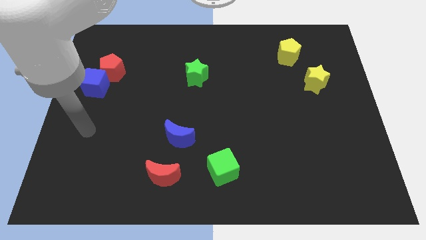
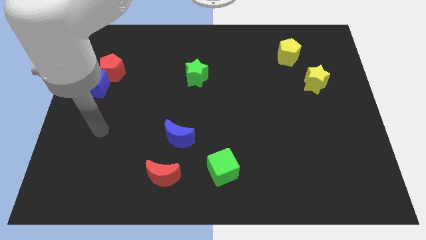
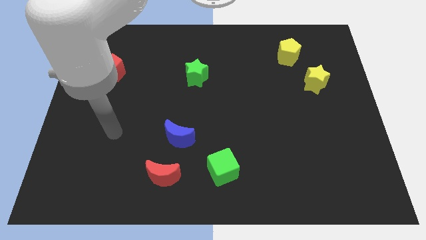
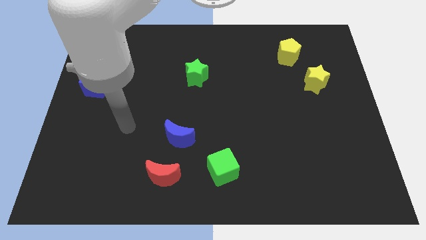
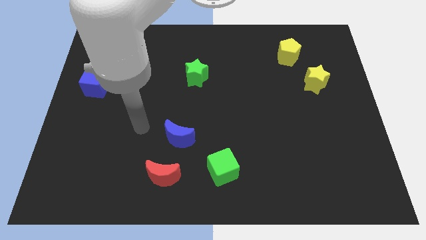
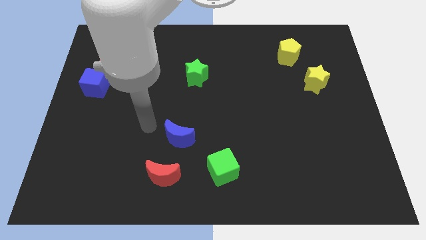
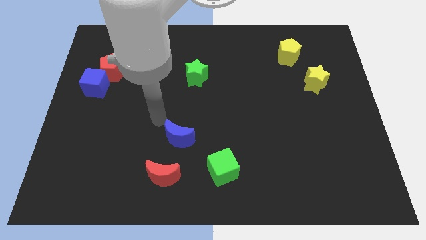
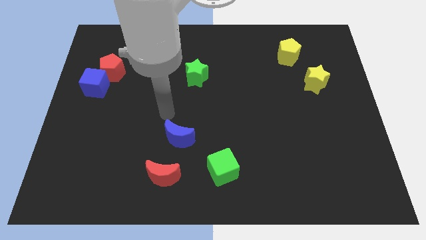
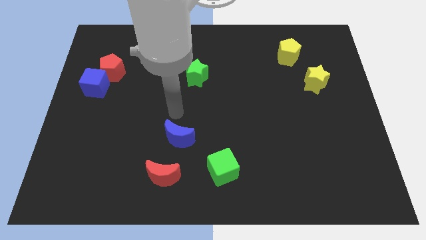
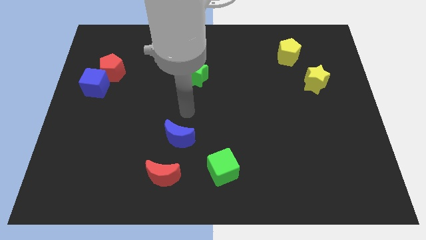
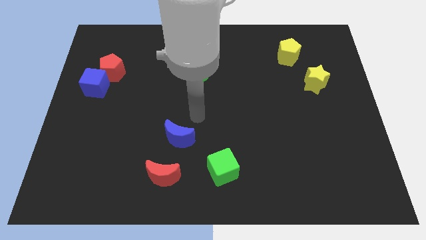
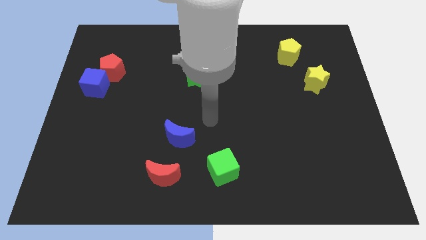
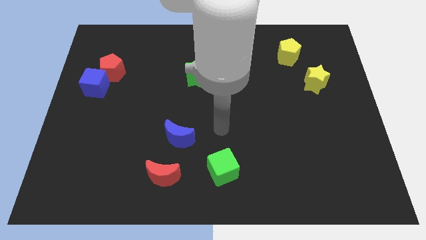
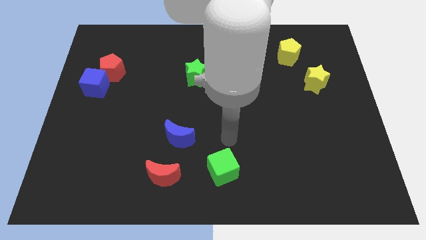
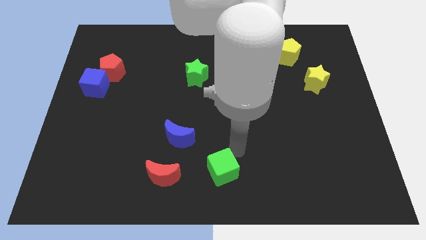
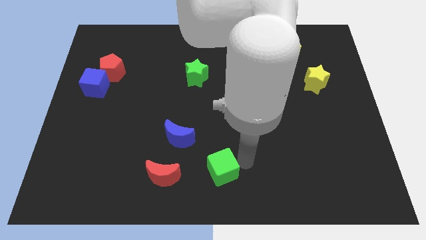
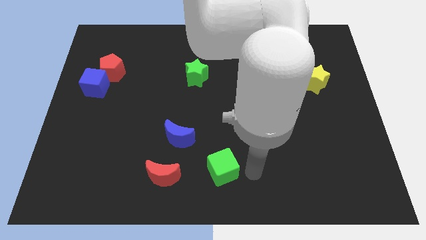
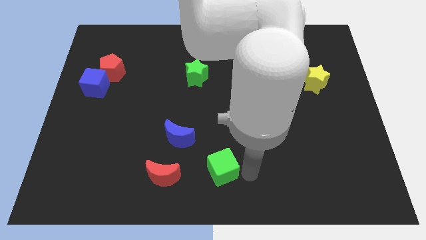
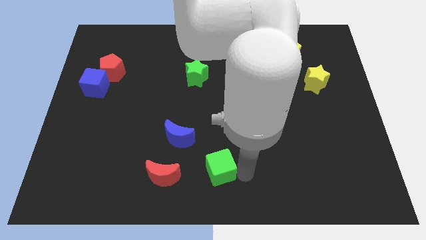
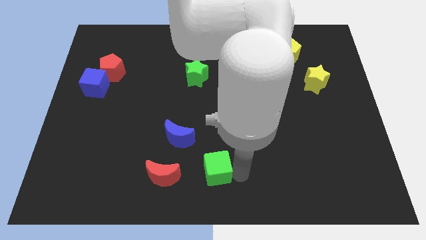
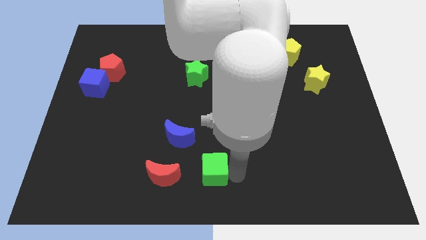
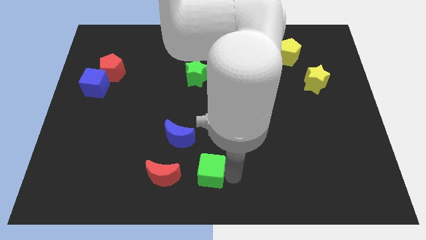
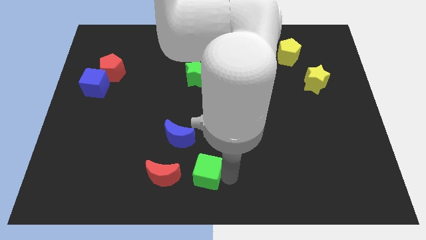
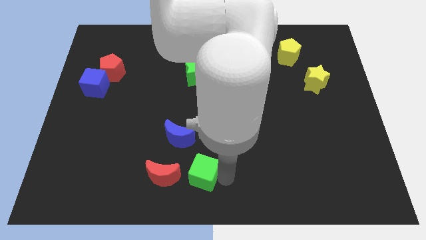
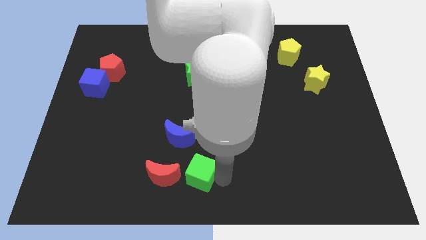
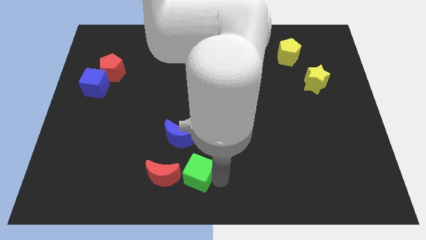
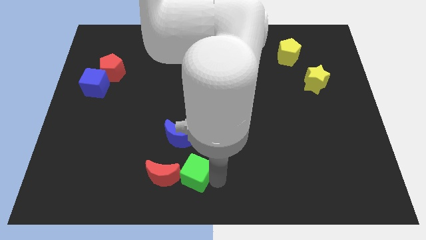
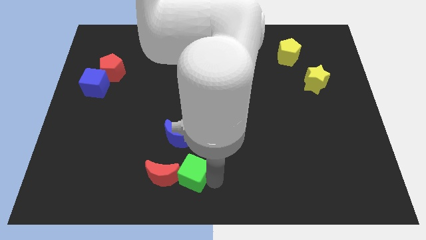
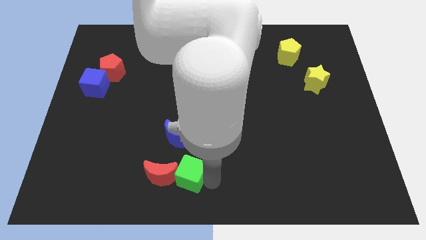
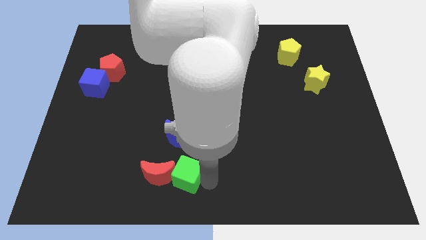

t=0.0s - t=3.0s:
push the green cube to the left a bit

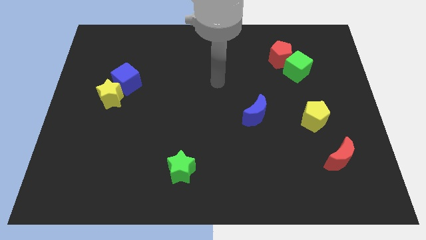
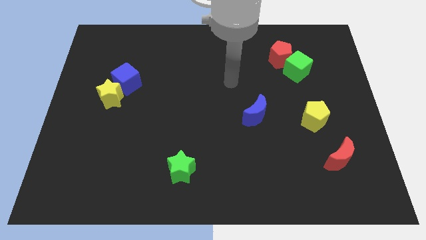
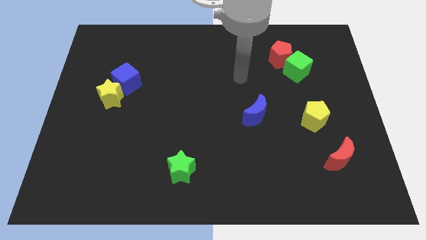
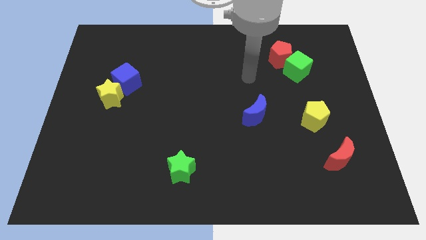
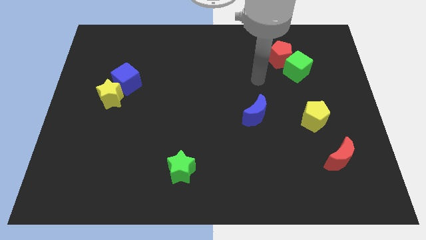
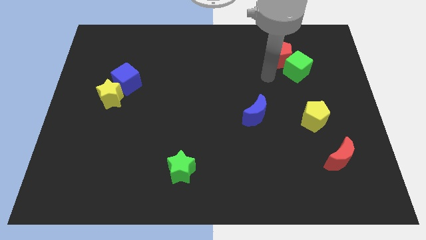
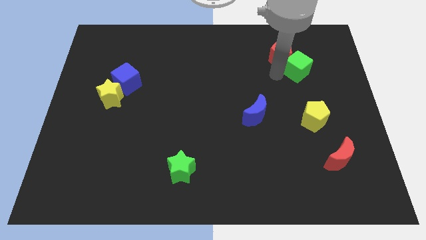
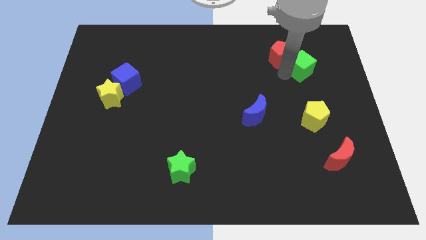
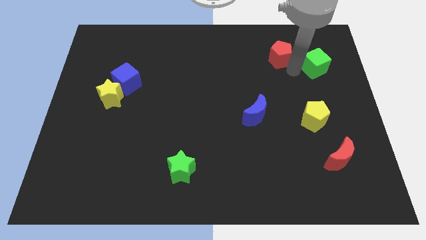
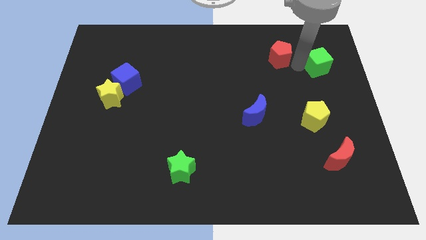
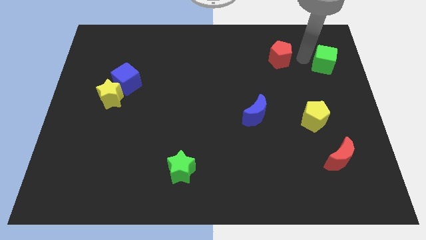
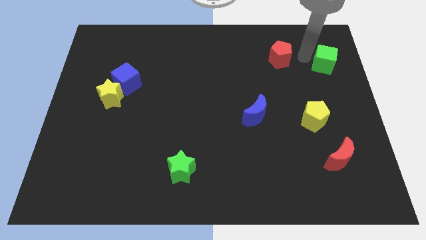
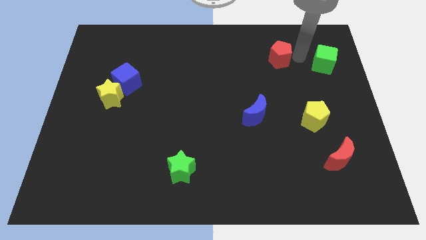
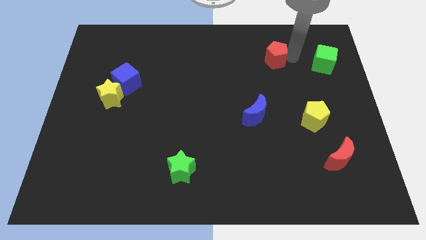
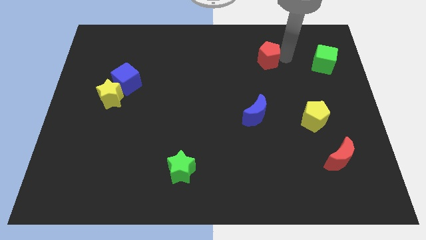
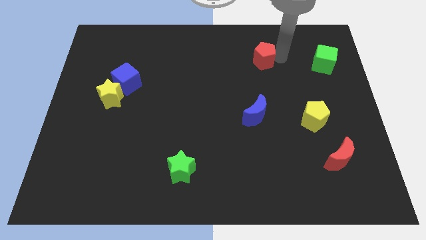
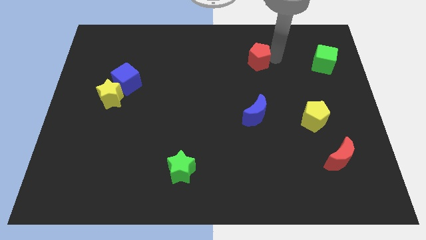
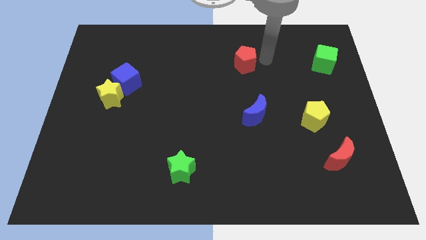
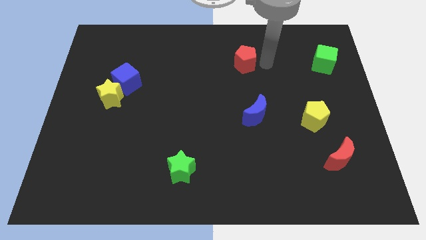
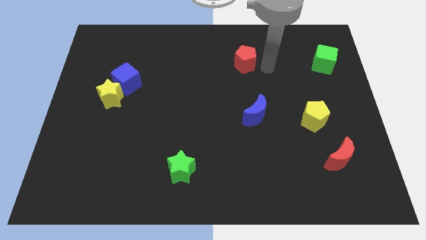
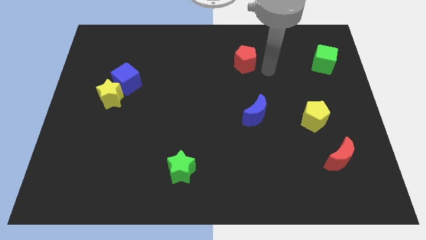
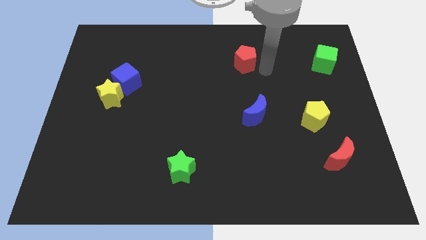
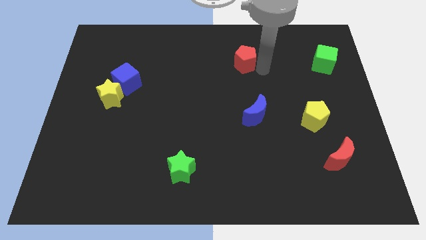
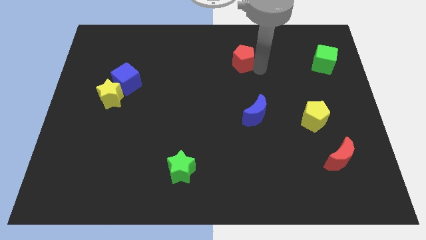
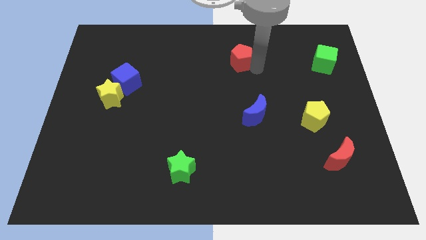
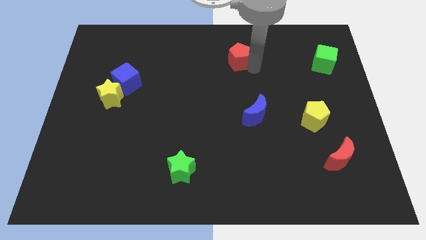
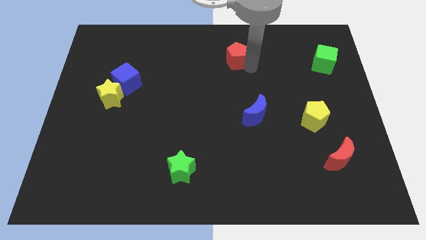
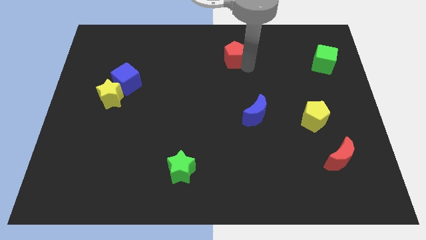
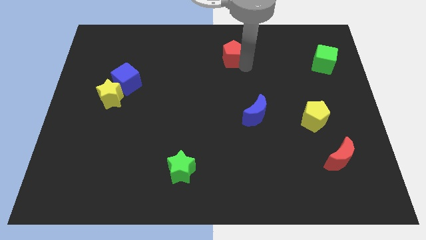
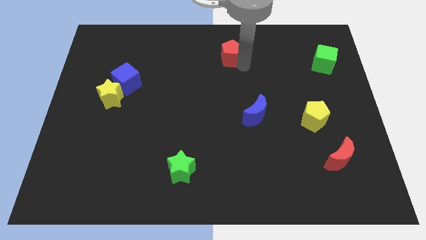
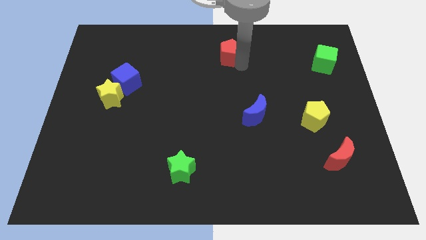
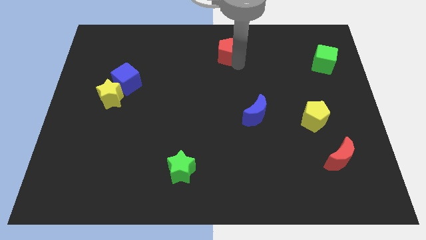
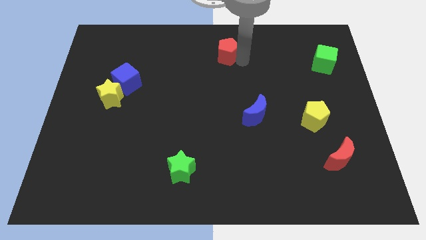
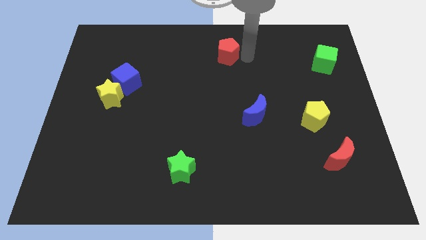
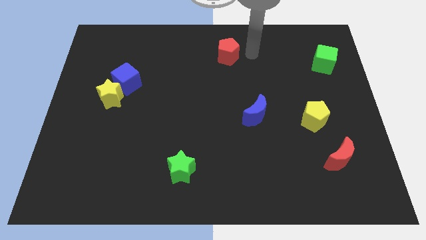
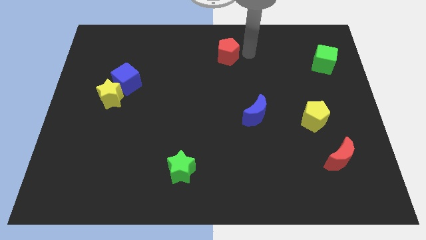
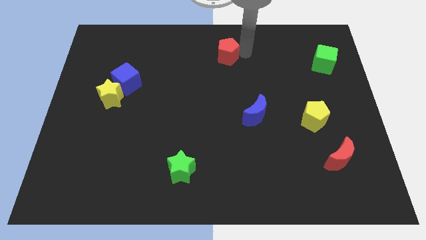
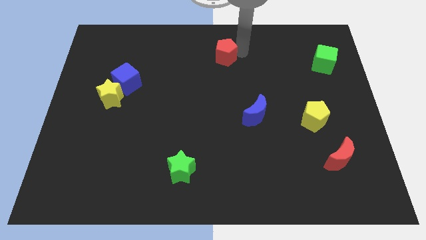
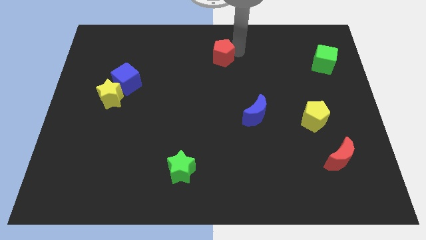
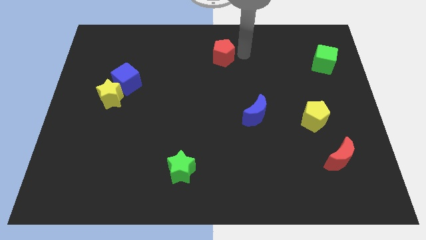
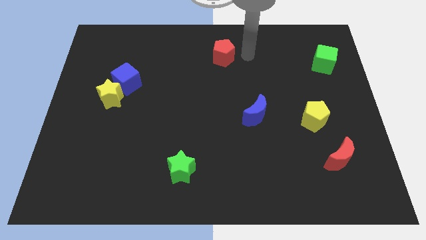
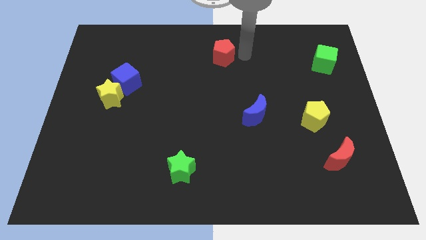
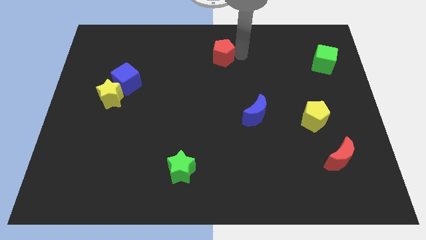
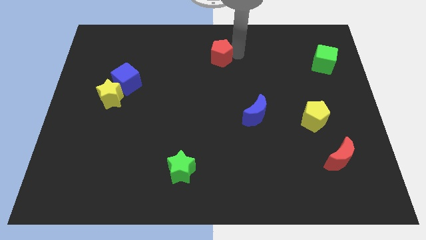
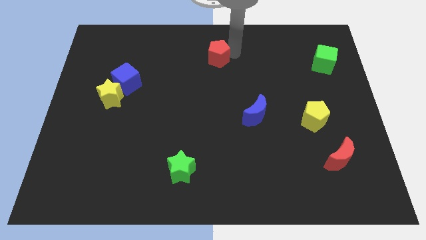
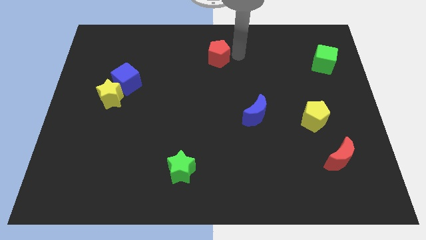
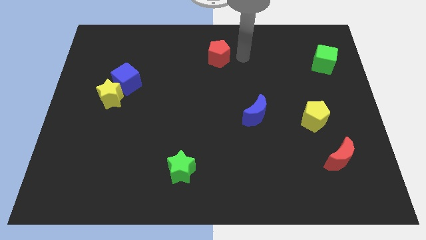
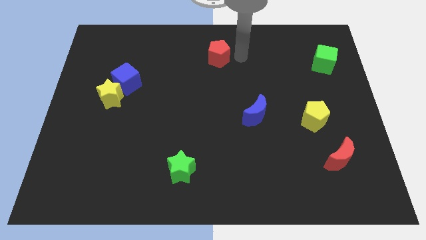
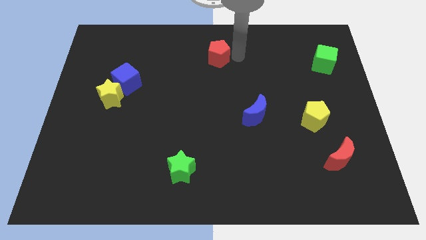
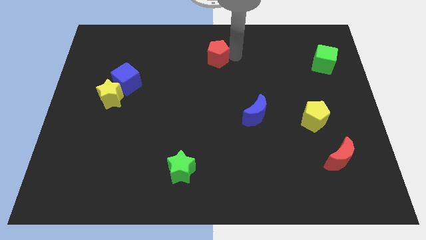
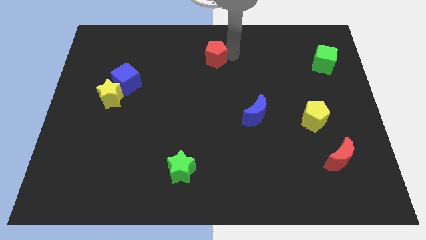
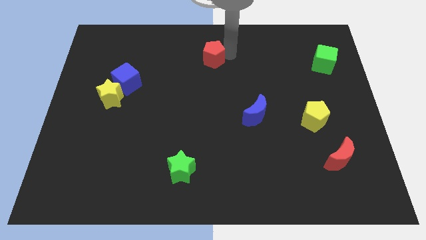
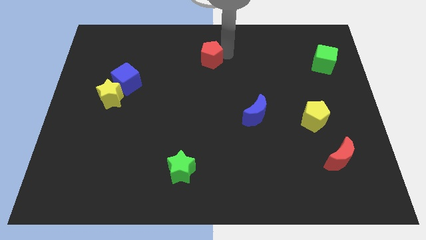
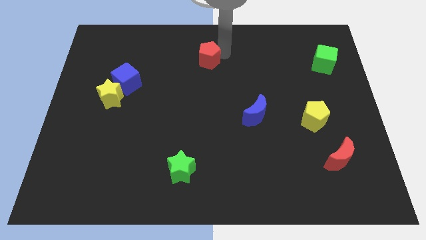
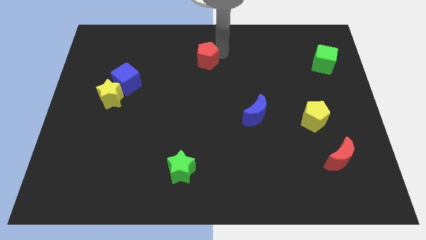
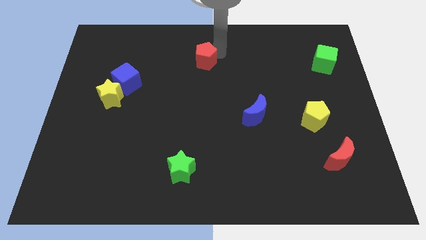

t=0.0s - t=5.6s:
move the red pentagon left
